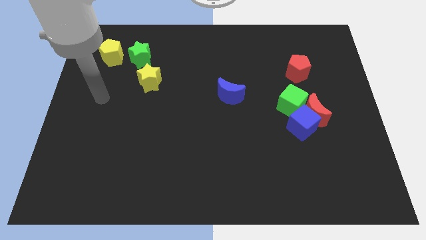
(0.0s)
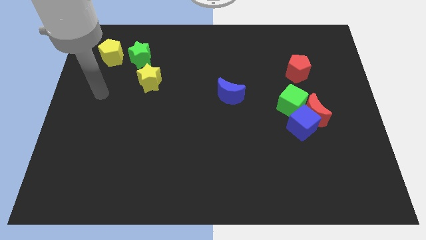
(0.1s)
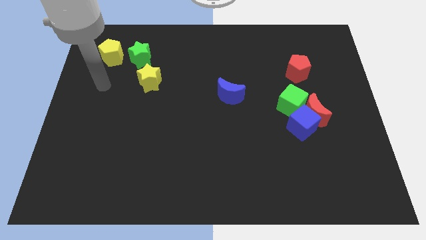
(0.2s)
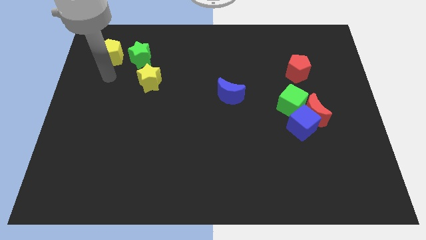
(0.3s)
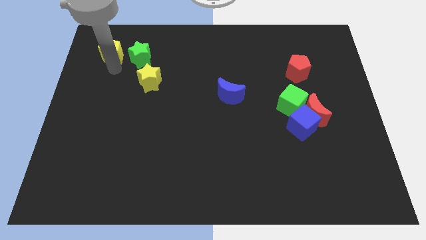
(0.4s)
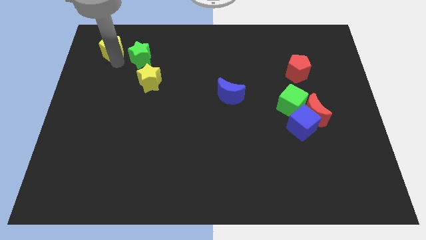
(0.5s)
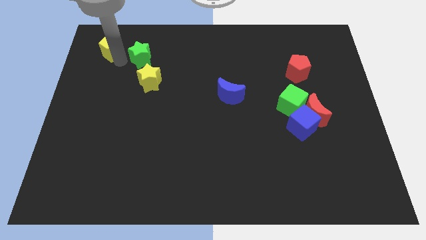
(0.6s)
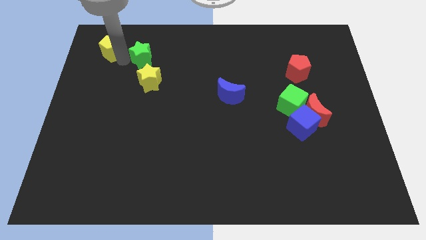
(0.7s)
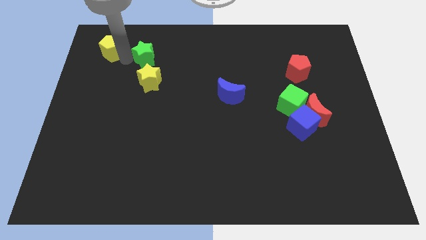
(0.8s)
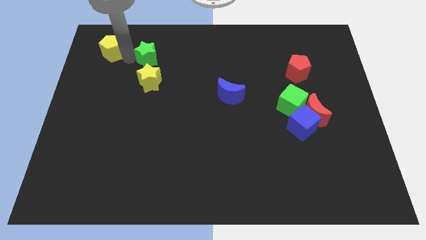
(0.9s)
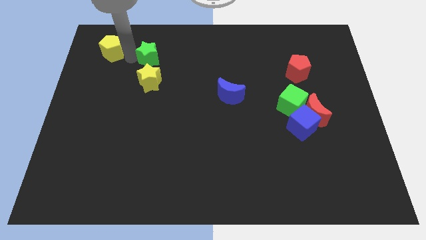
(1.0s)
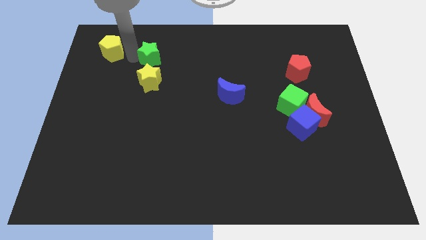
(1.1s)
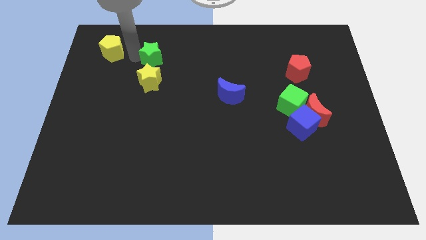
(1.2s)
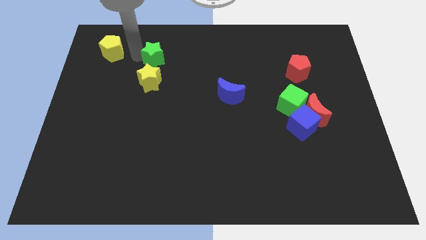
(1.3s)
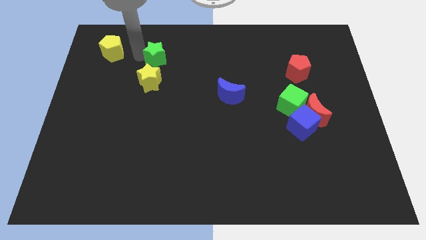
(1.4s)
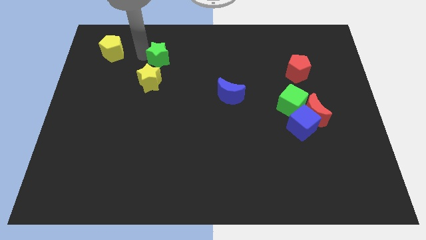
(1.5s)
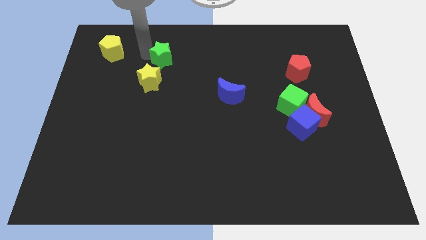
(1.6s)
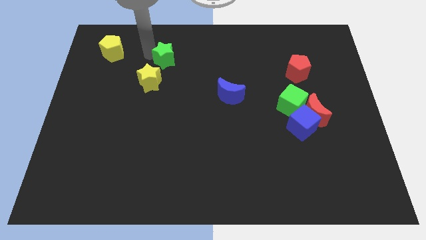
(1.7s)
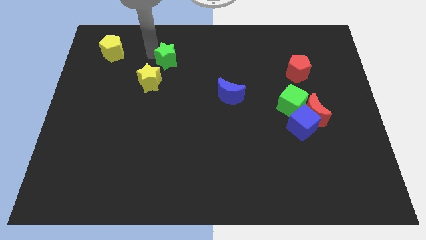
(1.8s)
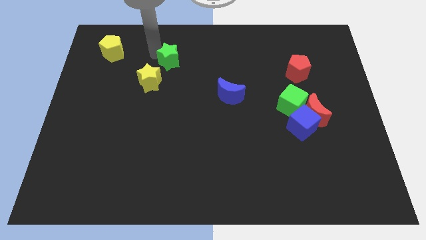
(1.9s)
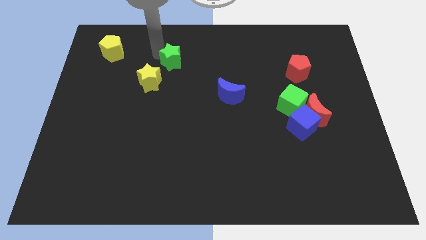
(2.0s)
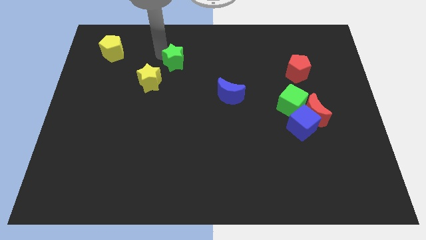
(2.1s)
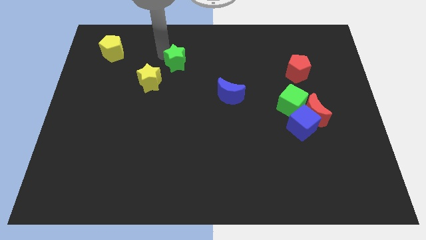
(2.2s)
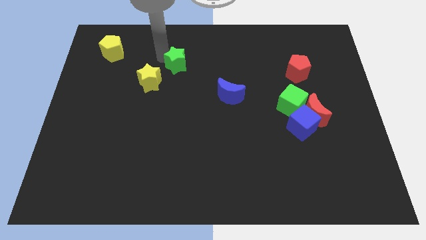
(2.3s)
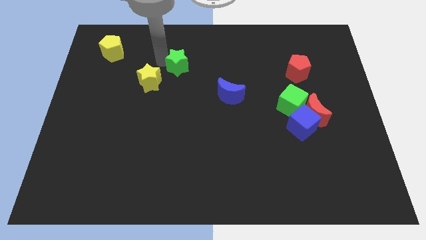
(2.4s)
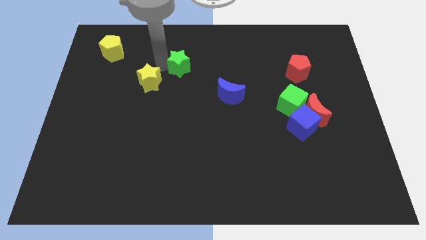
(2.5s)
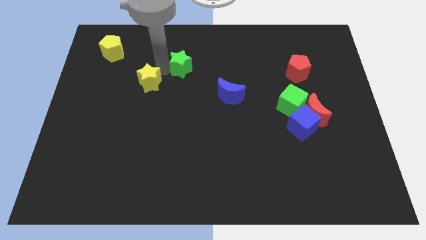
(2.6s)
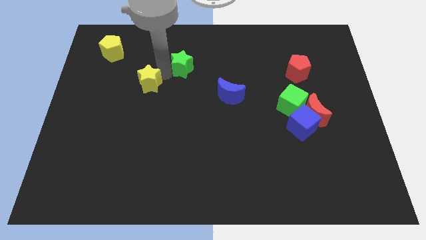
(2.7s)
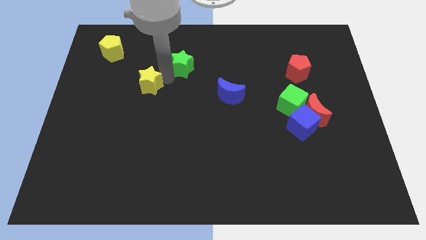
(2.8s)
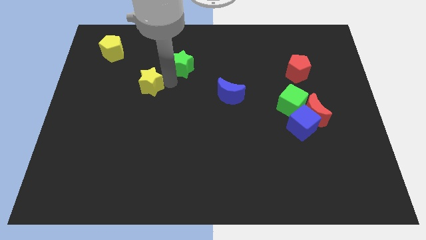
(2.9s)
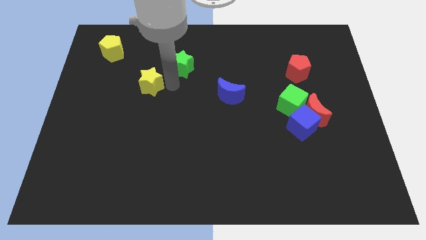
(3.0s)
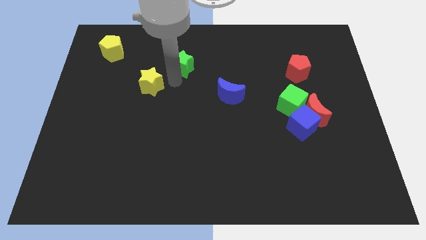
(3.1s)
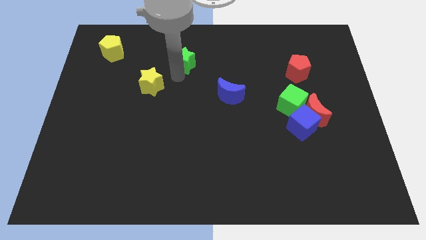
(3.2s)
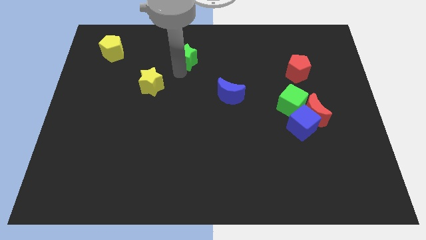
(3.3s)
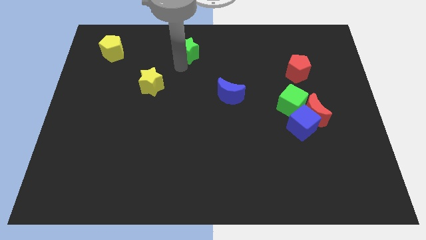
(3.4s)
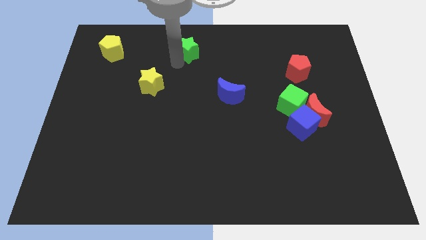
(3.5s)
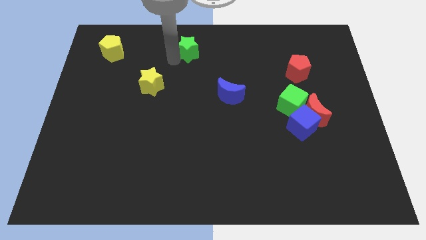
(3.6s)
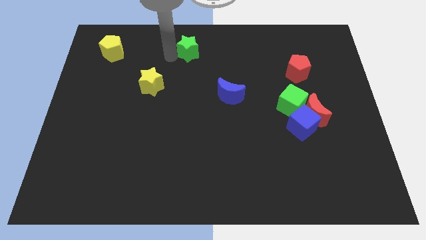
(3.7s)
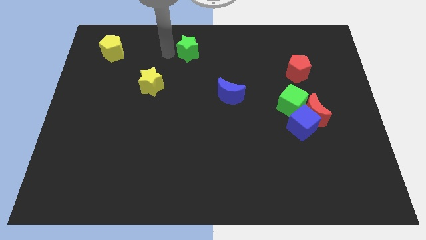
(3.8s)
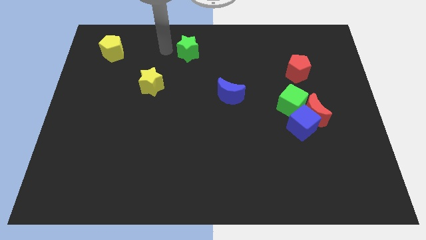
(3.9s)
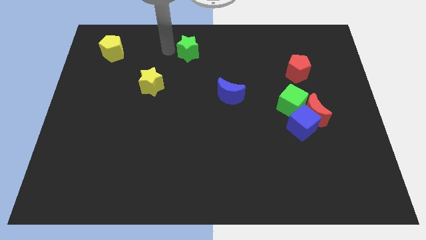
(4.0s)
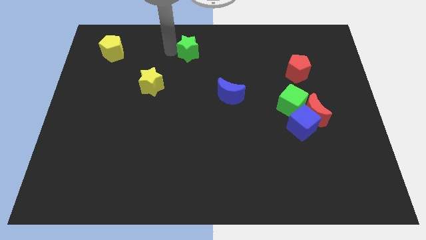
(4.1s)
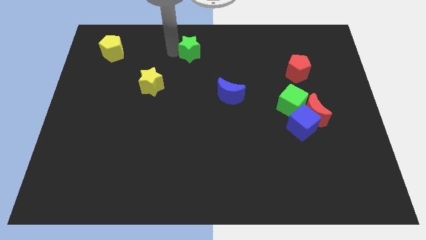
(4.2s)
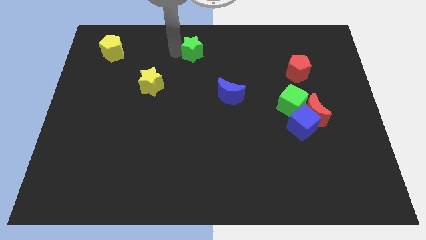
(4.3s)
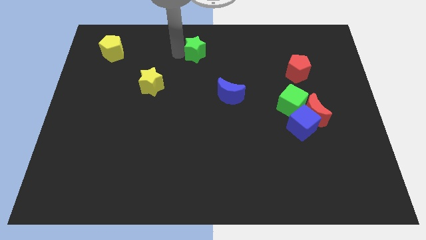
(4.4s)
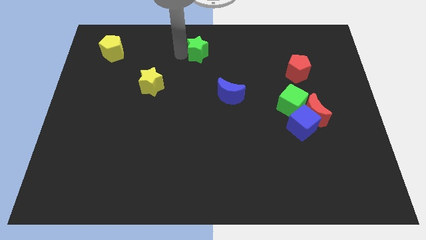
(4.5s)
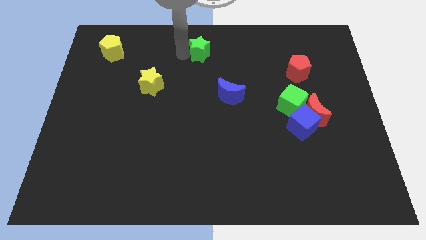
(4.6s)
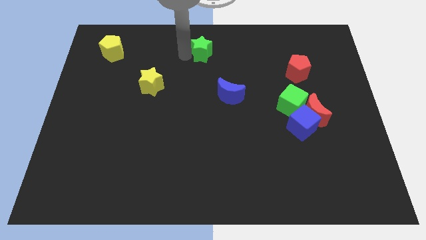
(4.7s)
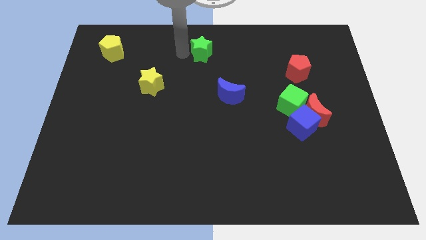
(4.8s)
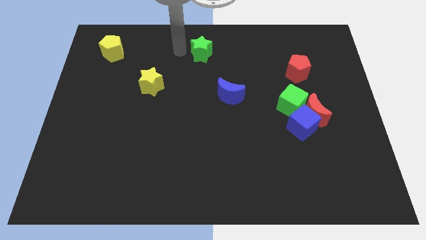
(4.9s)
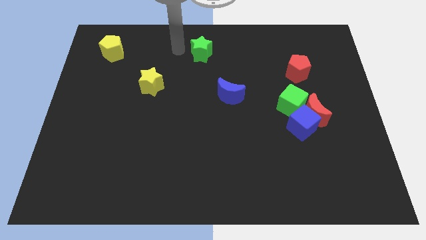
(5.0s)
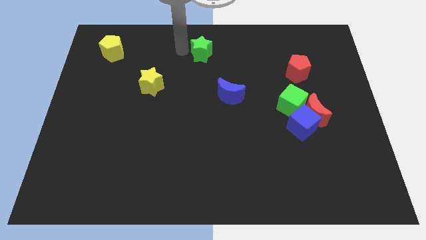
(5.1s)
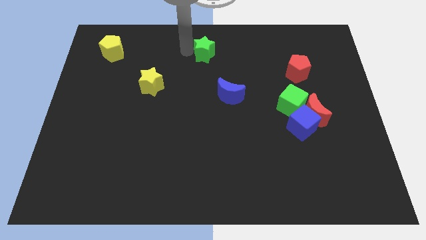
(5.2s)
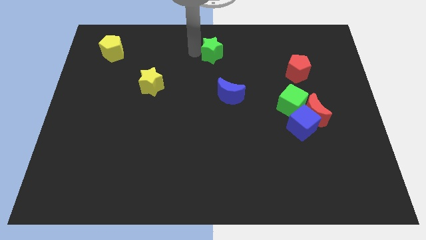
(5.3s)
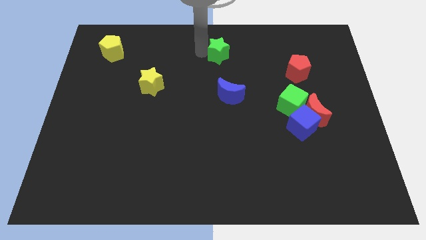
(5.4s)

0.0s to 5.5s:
move the green star right

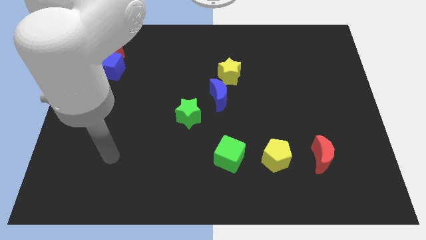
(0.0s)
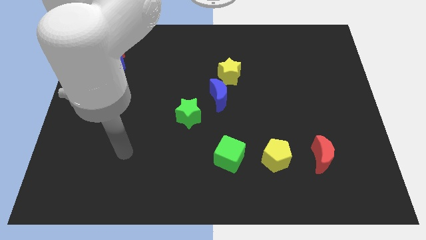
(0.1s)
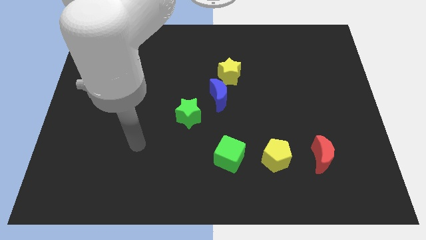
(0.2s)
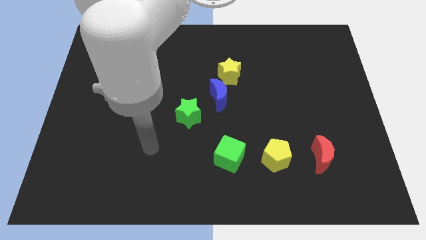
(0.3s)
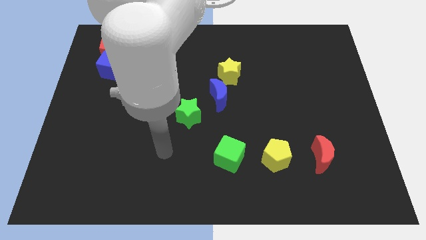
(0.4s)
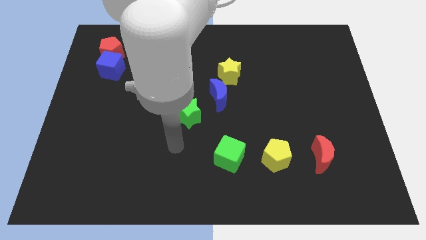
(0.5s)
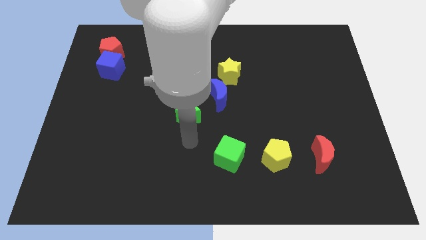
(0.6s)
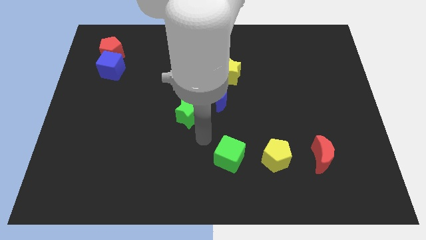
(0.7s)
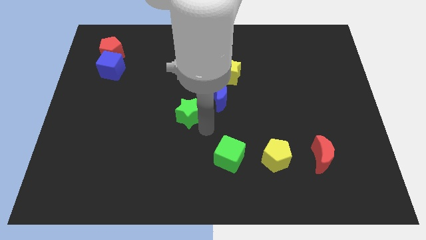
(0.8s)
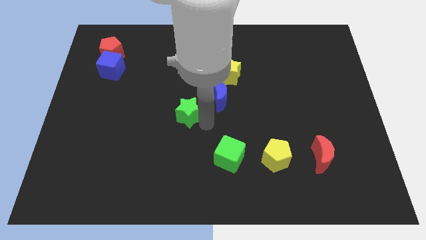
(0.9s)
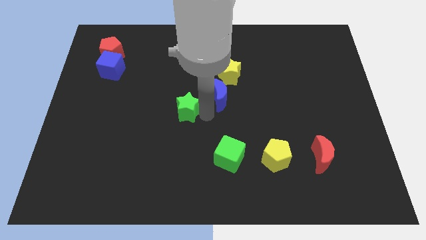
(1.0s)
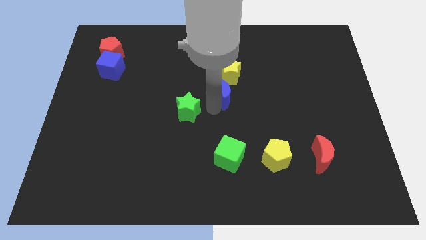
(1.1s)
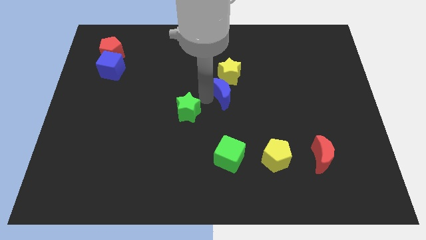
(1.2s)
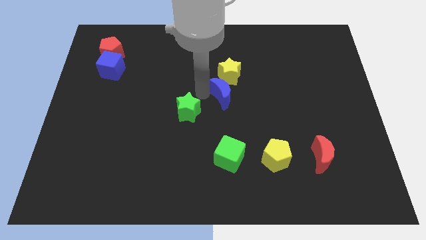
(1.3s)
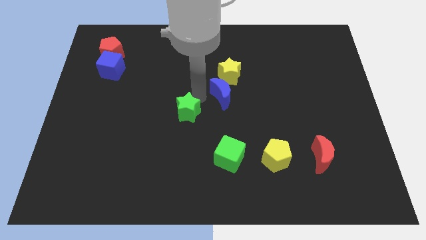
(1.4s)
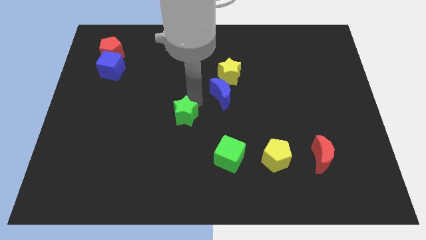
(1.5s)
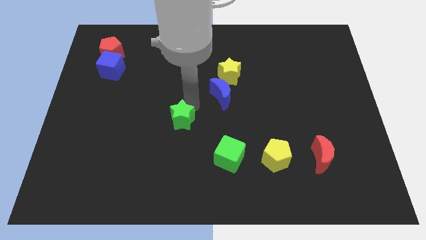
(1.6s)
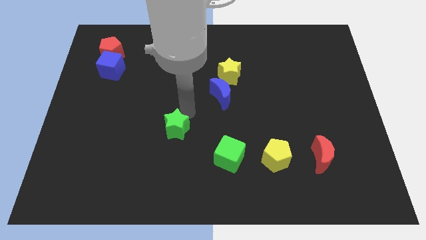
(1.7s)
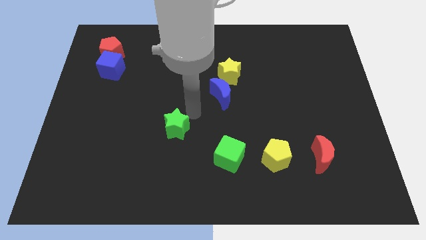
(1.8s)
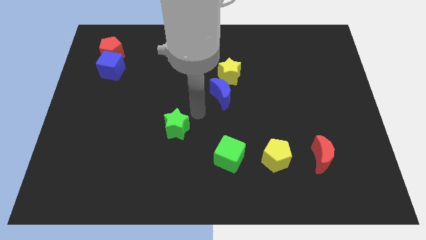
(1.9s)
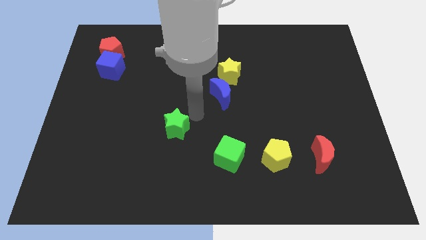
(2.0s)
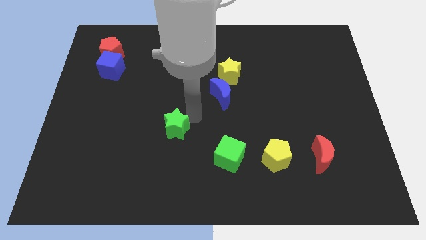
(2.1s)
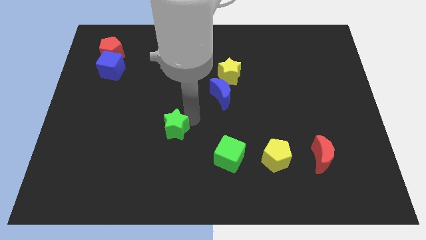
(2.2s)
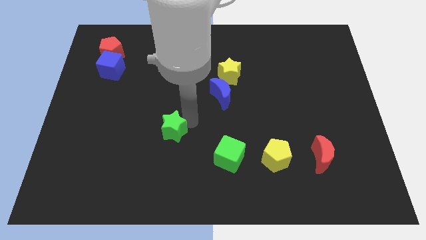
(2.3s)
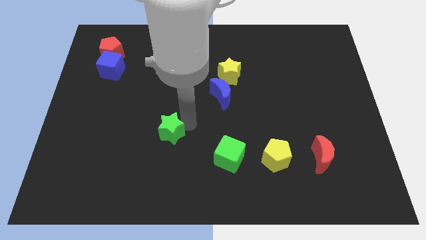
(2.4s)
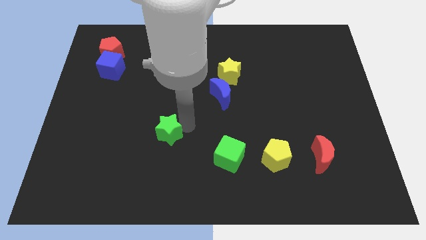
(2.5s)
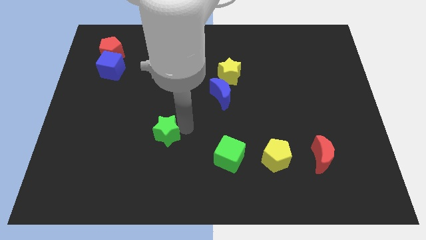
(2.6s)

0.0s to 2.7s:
slide the green star a little downwards and left diagonally

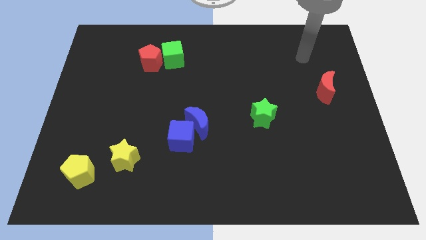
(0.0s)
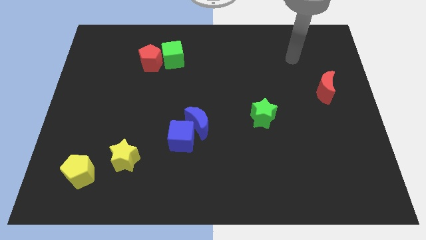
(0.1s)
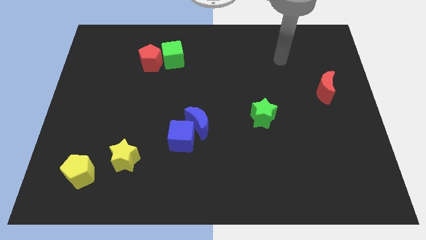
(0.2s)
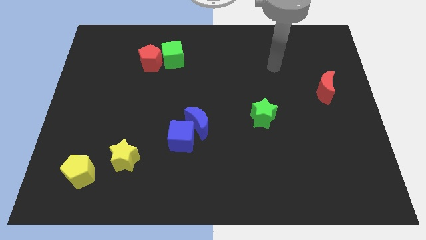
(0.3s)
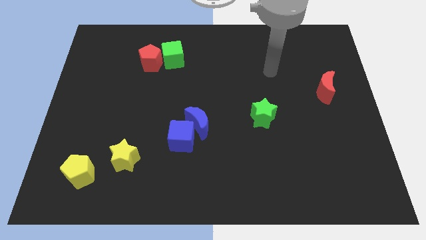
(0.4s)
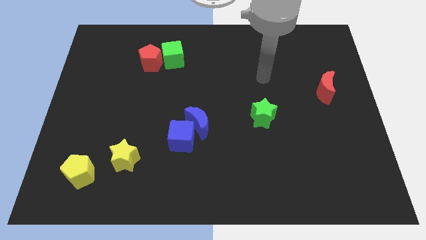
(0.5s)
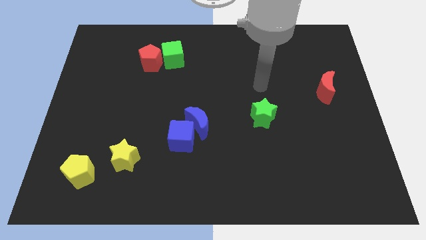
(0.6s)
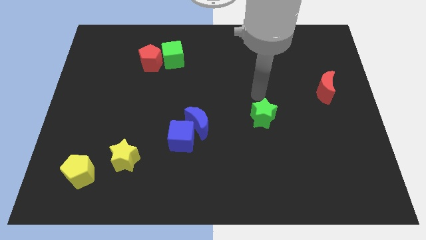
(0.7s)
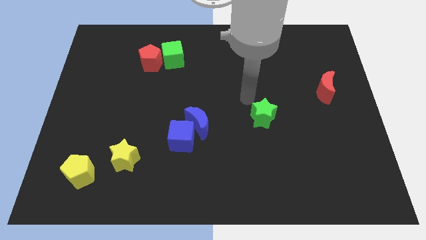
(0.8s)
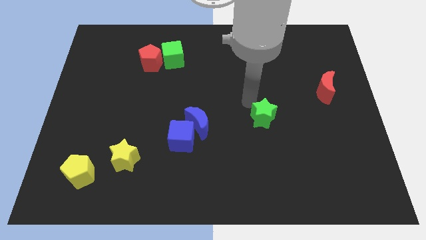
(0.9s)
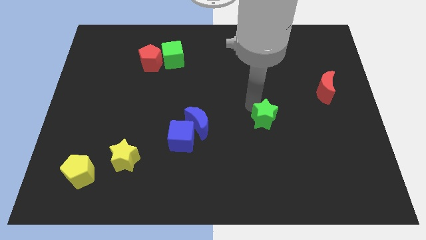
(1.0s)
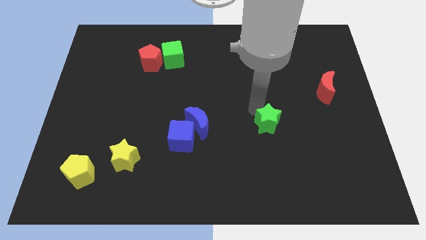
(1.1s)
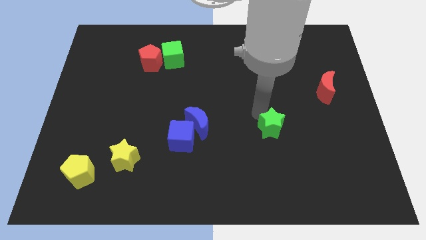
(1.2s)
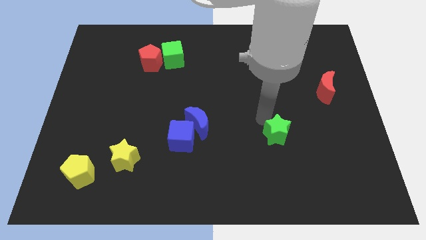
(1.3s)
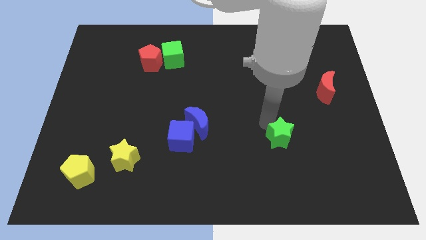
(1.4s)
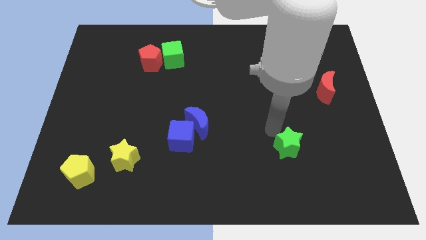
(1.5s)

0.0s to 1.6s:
slightly move the green star diagonally down and to the right
